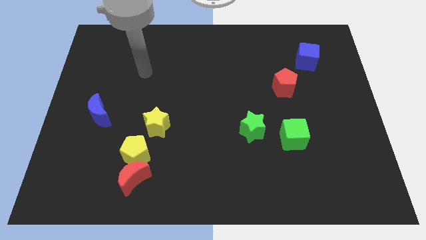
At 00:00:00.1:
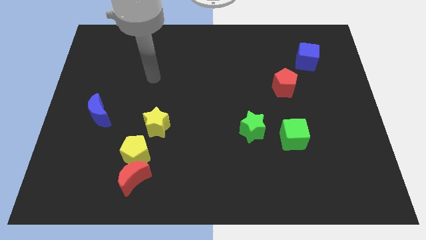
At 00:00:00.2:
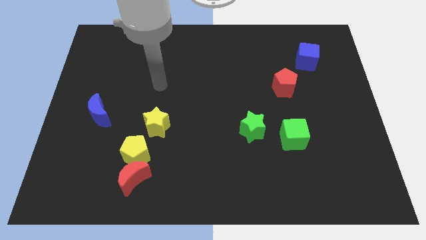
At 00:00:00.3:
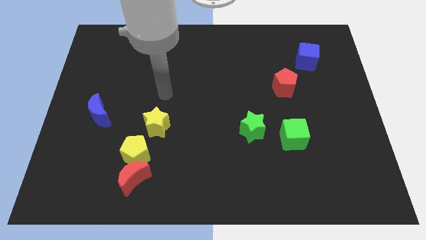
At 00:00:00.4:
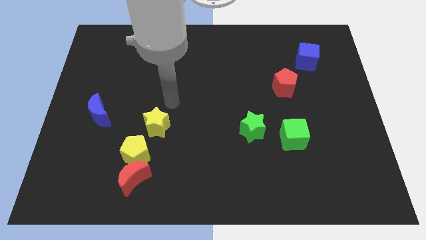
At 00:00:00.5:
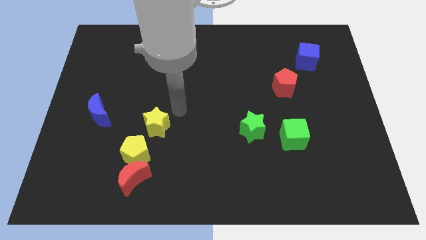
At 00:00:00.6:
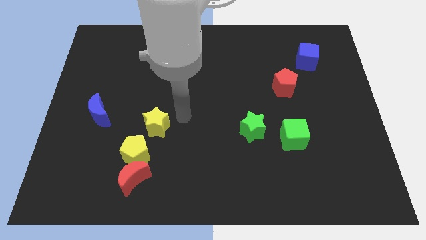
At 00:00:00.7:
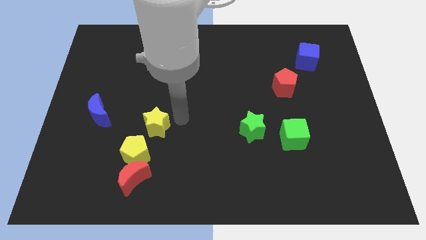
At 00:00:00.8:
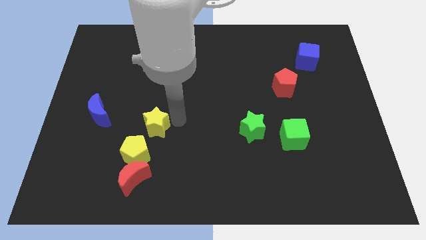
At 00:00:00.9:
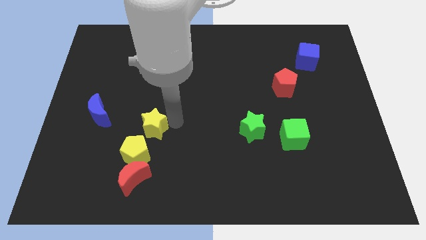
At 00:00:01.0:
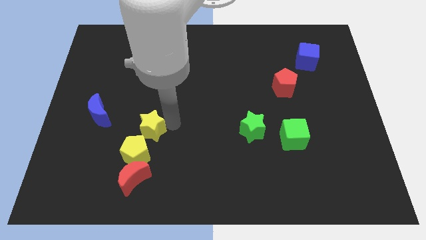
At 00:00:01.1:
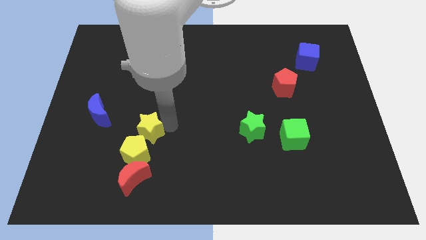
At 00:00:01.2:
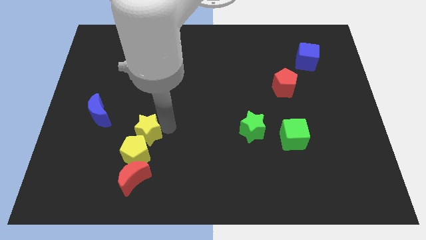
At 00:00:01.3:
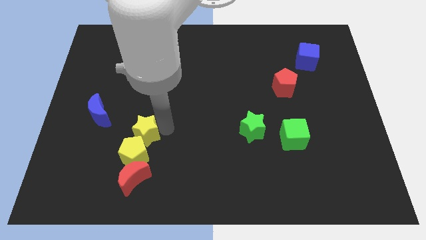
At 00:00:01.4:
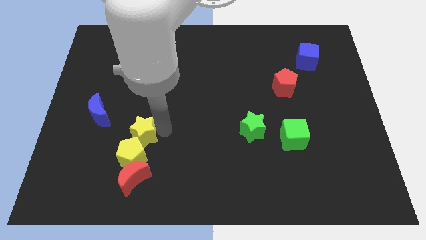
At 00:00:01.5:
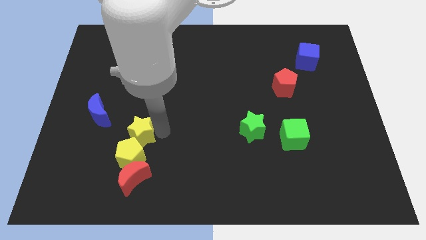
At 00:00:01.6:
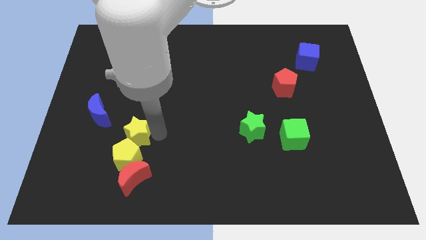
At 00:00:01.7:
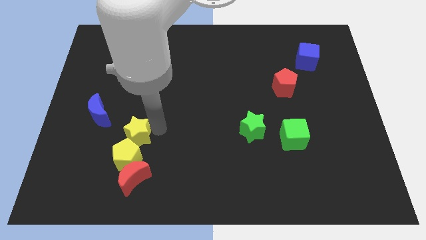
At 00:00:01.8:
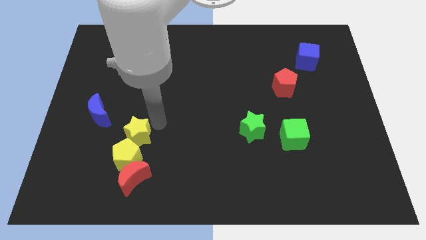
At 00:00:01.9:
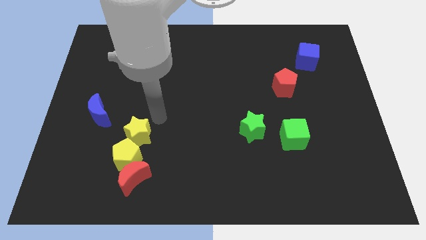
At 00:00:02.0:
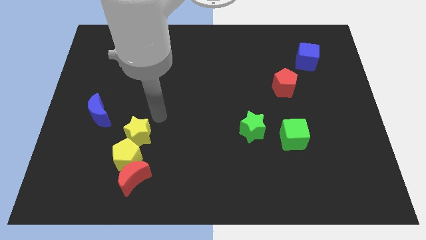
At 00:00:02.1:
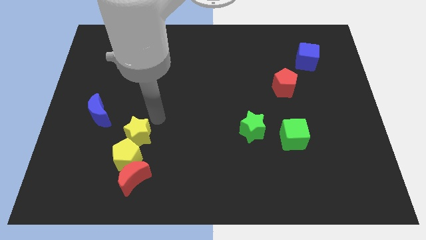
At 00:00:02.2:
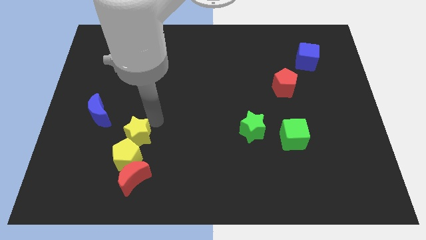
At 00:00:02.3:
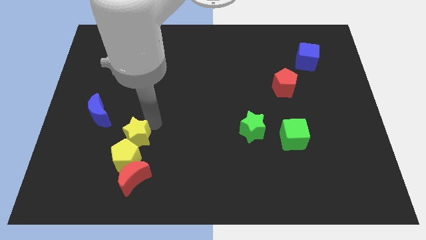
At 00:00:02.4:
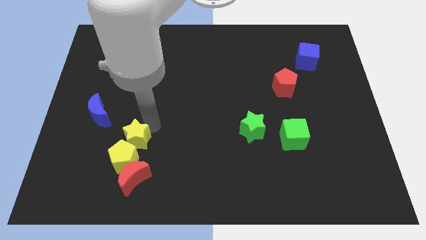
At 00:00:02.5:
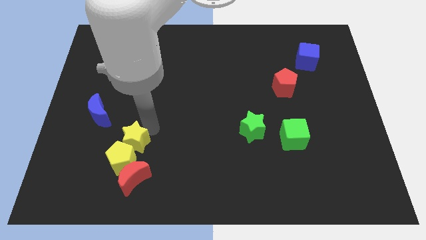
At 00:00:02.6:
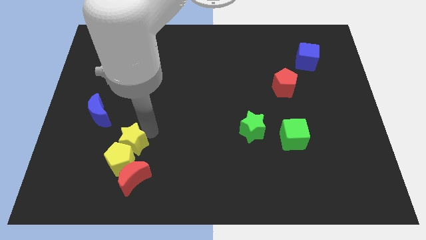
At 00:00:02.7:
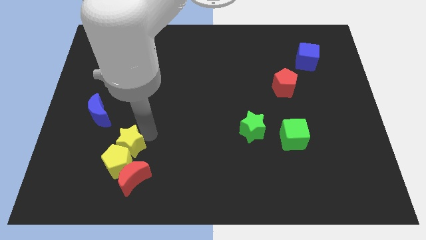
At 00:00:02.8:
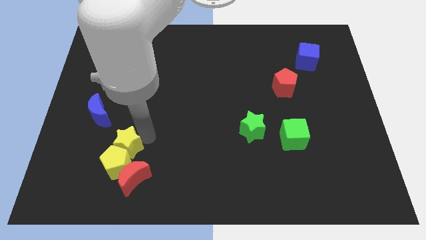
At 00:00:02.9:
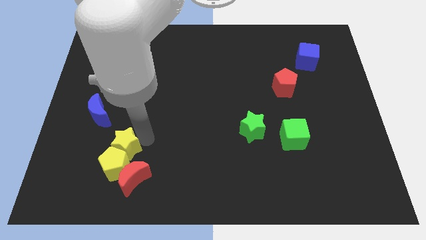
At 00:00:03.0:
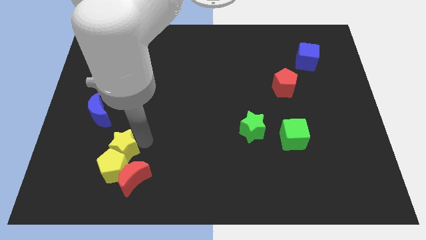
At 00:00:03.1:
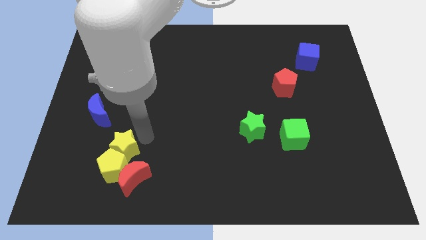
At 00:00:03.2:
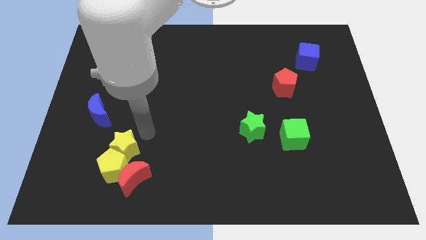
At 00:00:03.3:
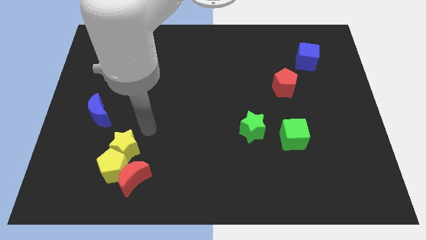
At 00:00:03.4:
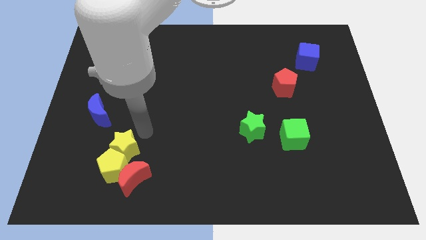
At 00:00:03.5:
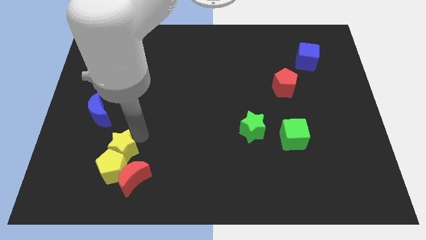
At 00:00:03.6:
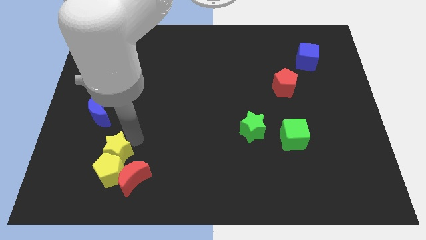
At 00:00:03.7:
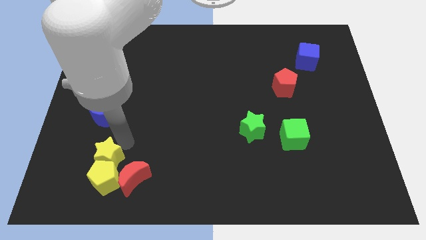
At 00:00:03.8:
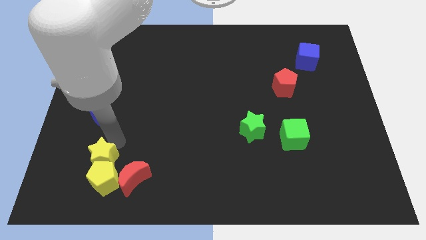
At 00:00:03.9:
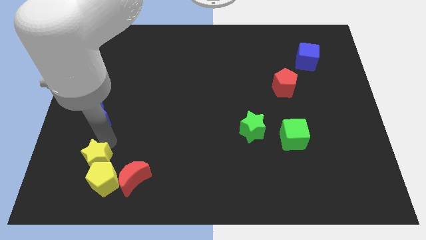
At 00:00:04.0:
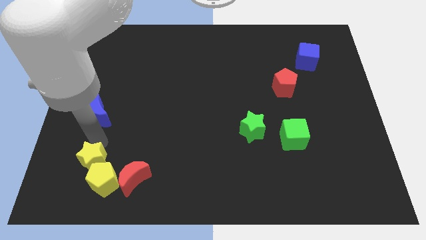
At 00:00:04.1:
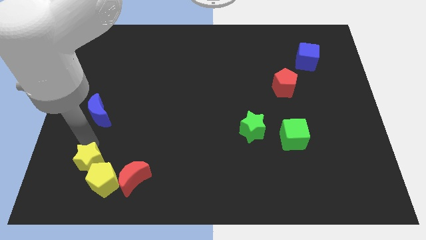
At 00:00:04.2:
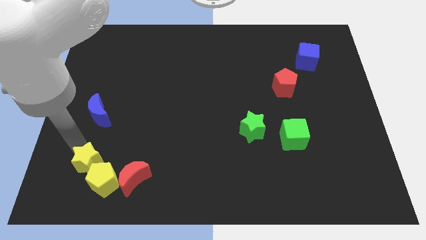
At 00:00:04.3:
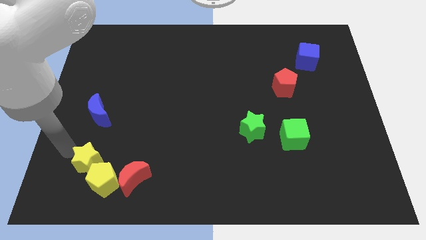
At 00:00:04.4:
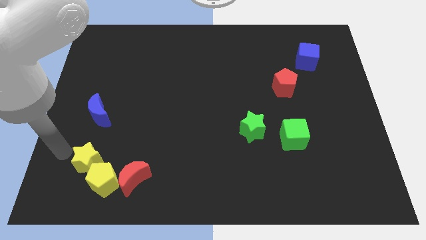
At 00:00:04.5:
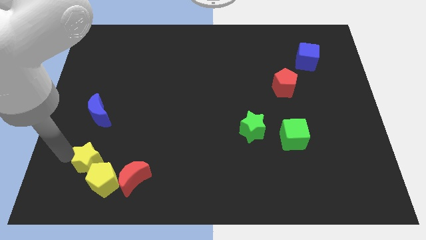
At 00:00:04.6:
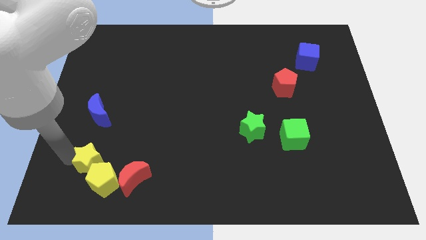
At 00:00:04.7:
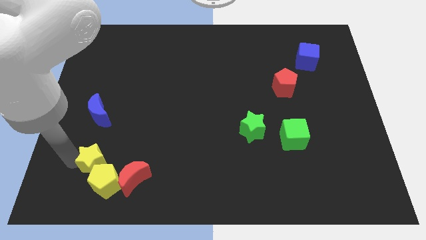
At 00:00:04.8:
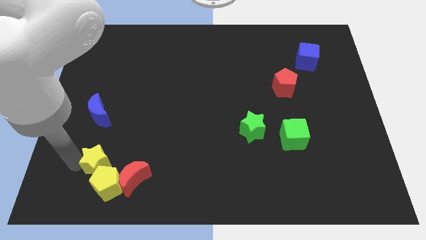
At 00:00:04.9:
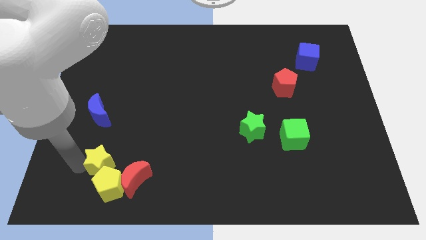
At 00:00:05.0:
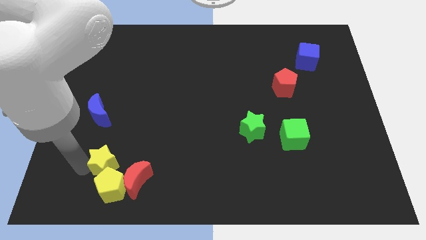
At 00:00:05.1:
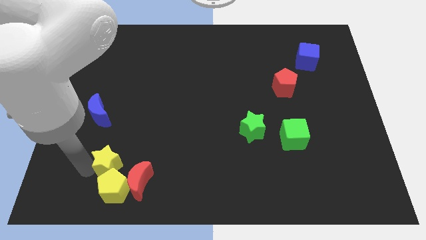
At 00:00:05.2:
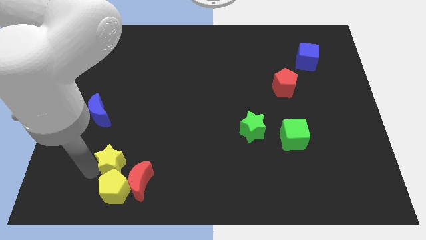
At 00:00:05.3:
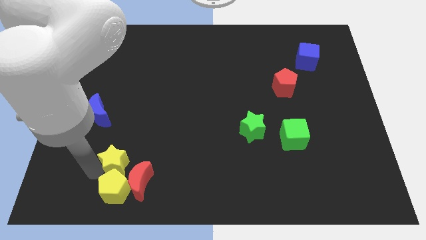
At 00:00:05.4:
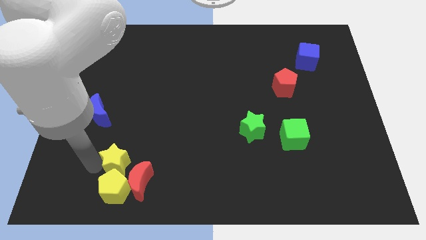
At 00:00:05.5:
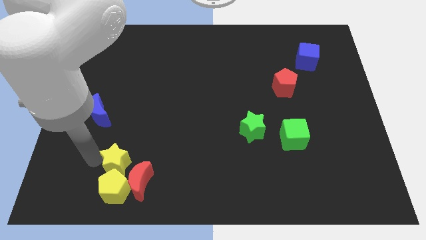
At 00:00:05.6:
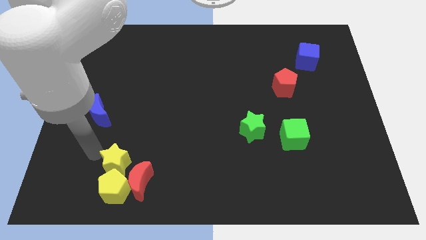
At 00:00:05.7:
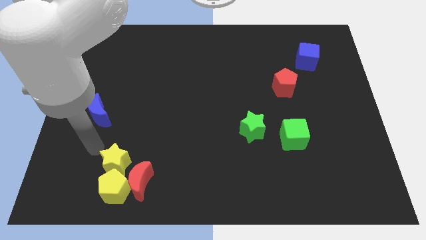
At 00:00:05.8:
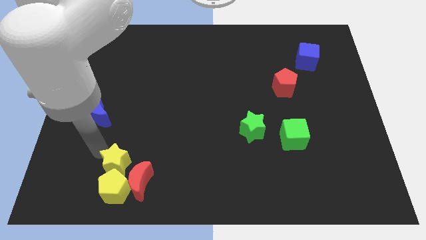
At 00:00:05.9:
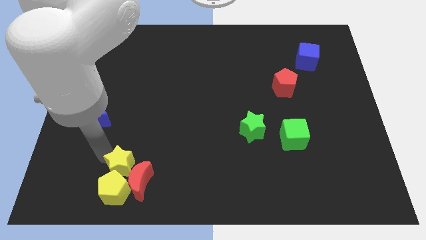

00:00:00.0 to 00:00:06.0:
push the yellow star close to the red moon
